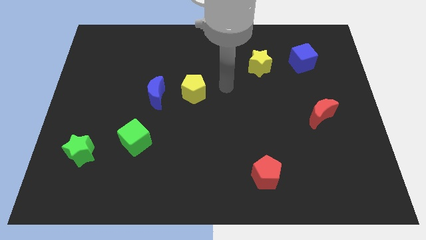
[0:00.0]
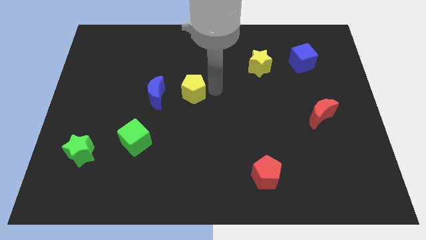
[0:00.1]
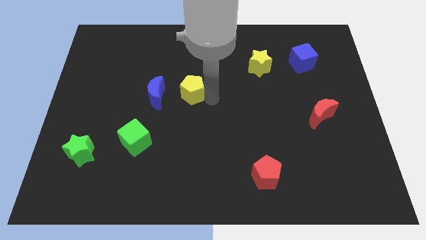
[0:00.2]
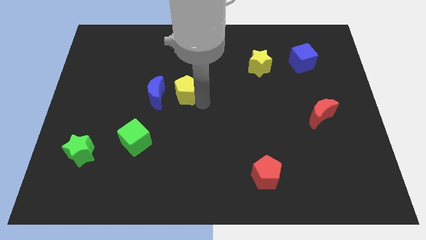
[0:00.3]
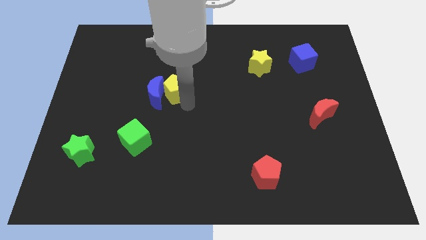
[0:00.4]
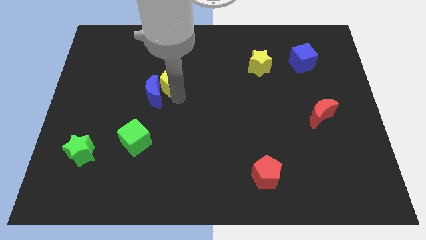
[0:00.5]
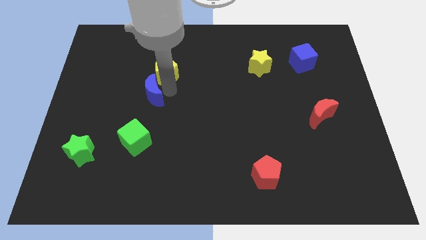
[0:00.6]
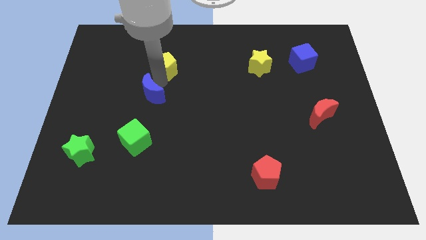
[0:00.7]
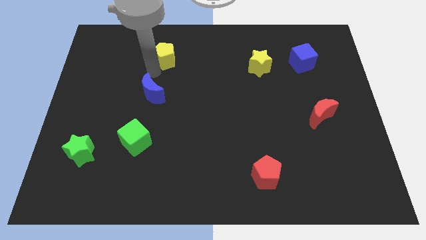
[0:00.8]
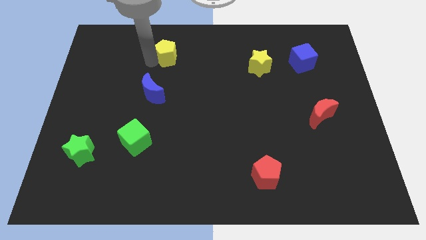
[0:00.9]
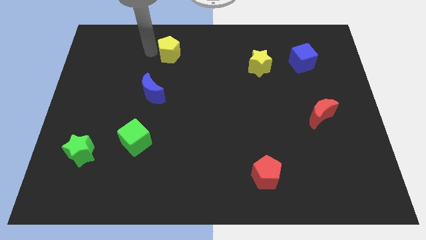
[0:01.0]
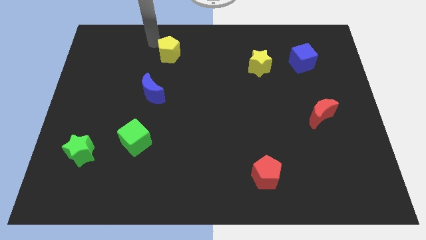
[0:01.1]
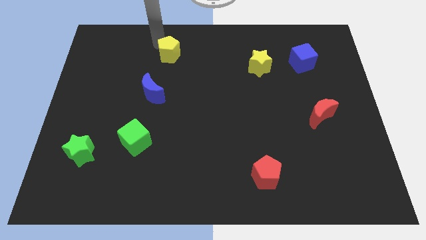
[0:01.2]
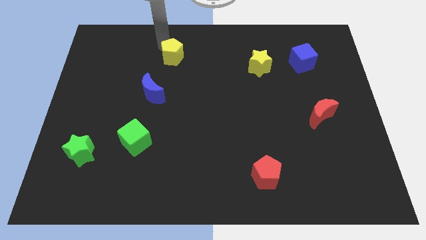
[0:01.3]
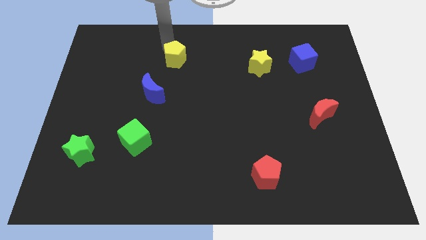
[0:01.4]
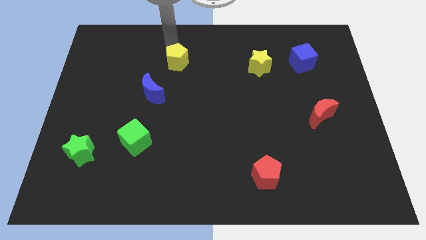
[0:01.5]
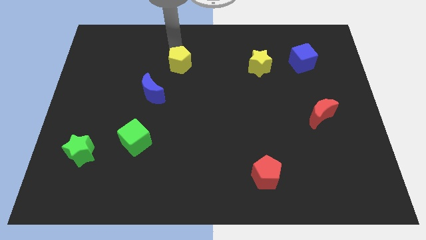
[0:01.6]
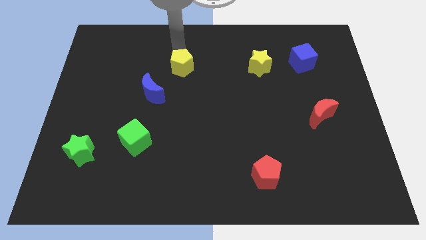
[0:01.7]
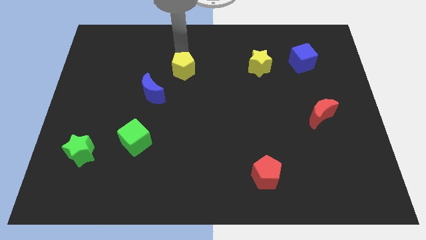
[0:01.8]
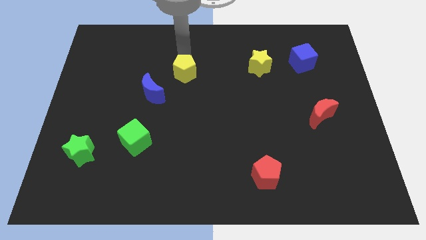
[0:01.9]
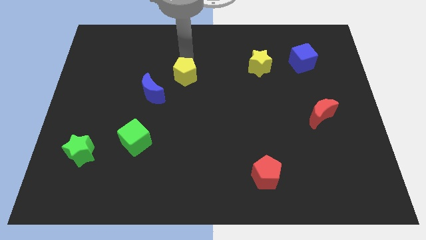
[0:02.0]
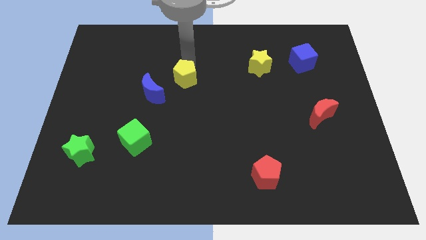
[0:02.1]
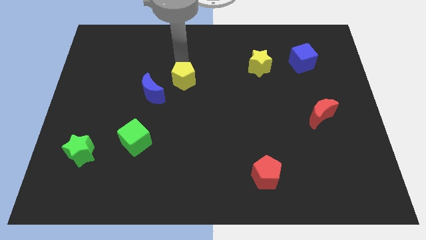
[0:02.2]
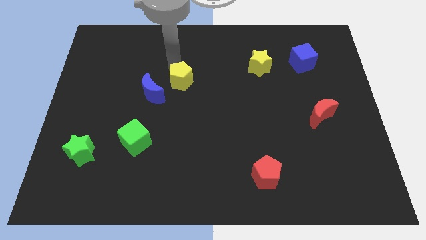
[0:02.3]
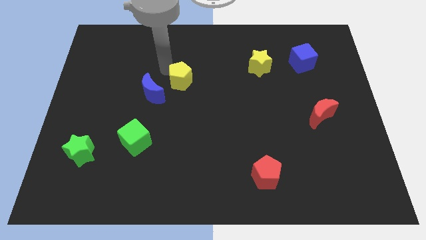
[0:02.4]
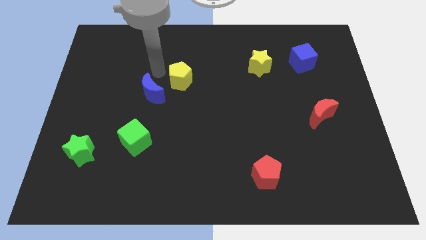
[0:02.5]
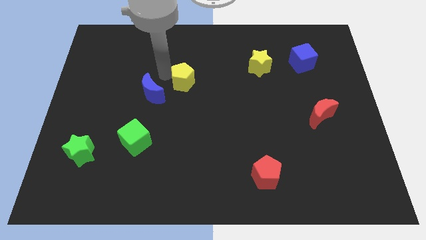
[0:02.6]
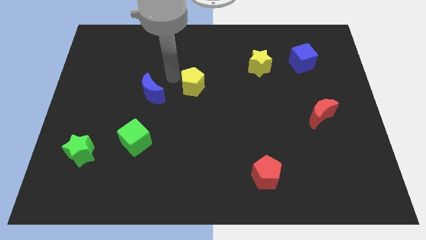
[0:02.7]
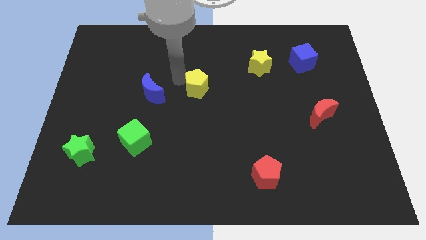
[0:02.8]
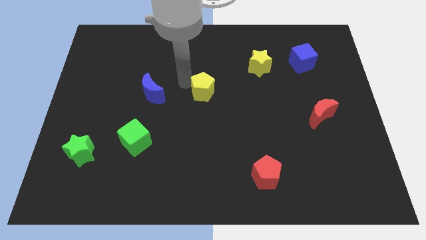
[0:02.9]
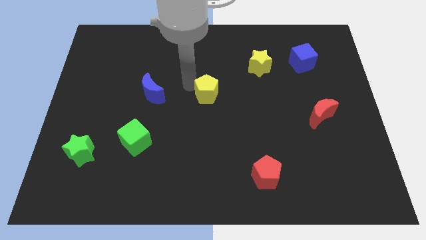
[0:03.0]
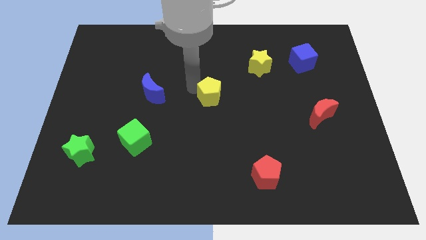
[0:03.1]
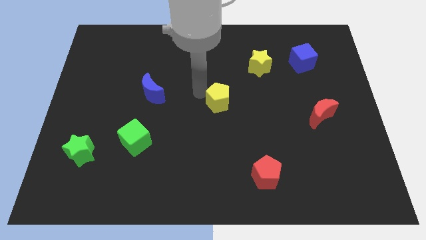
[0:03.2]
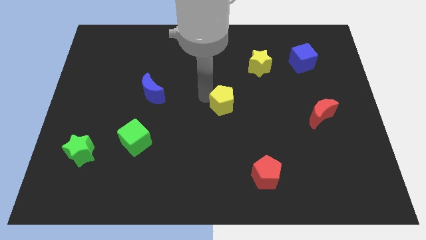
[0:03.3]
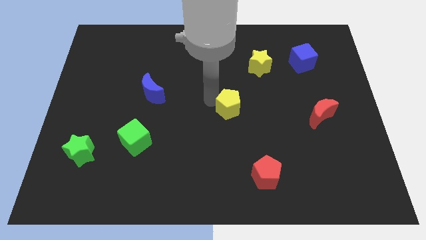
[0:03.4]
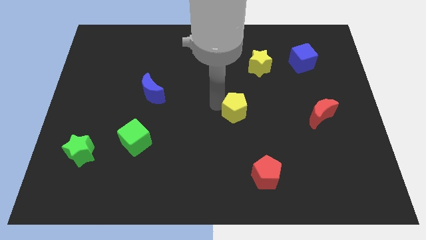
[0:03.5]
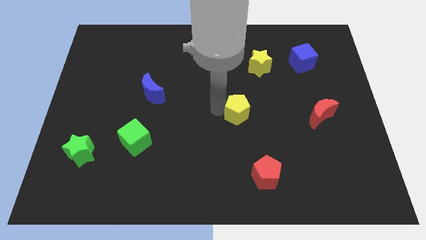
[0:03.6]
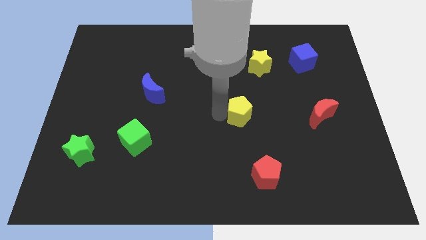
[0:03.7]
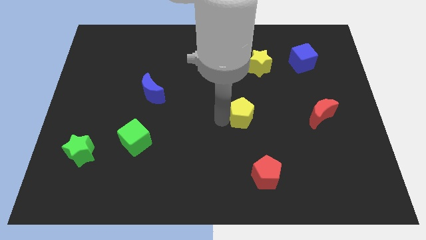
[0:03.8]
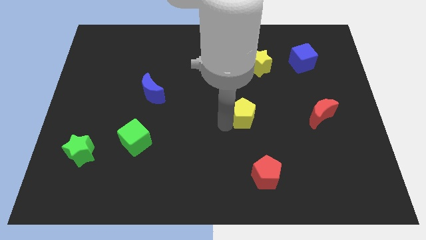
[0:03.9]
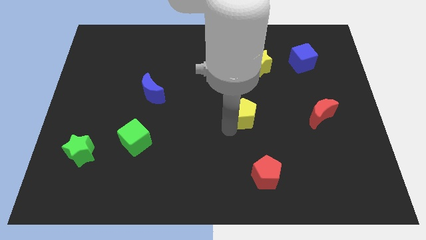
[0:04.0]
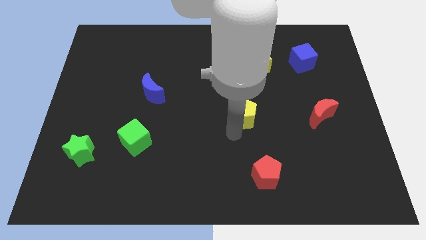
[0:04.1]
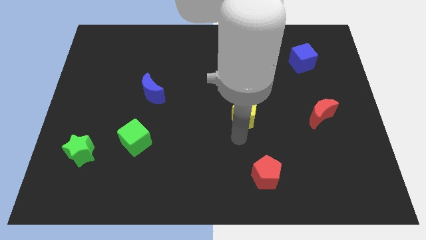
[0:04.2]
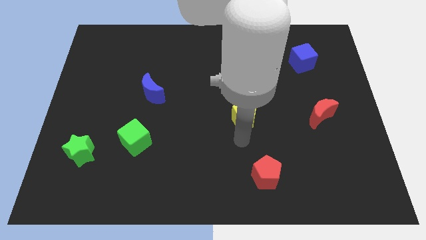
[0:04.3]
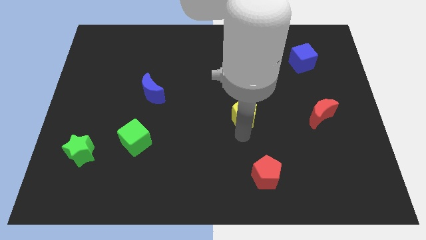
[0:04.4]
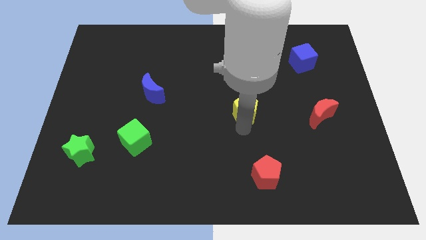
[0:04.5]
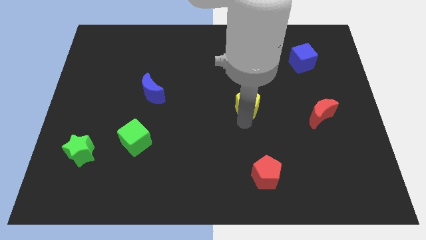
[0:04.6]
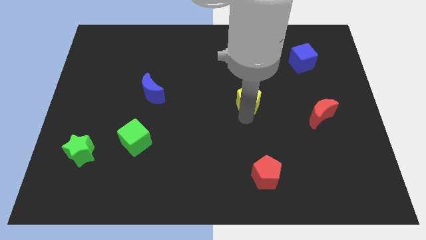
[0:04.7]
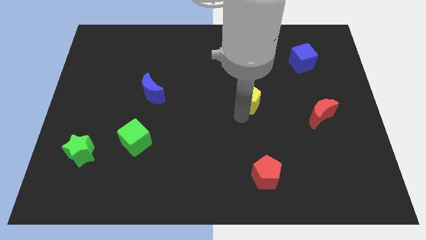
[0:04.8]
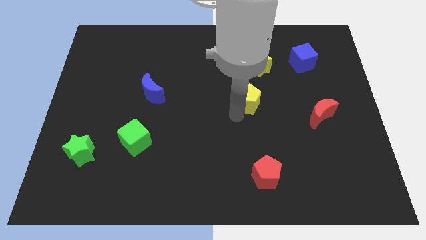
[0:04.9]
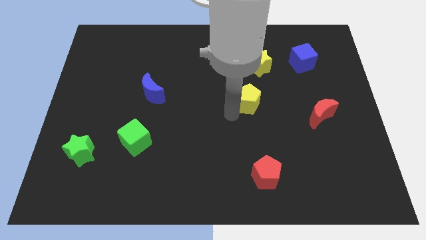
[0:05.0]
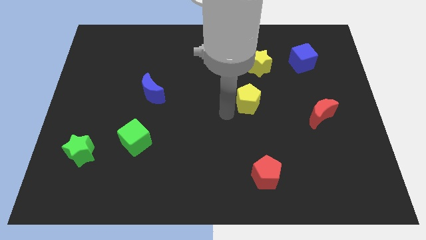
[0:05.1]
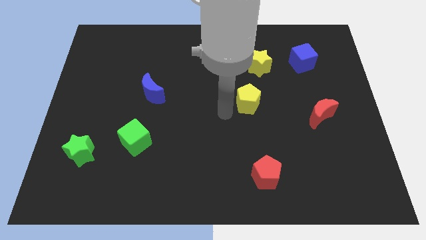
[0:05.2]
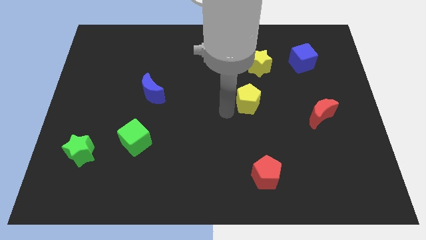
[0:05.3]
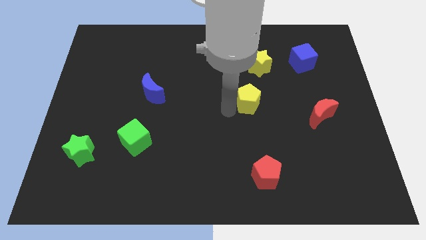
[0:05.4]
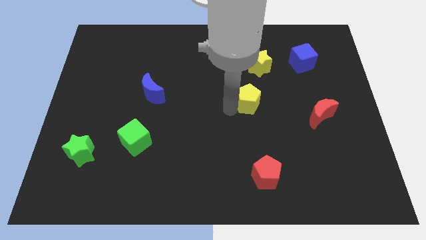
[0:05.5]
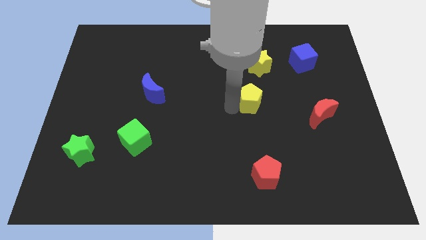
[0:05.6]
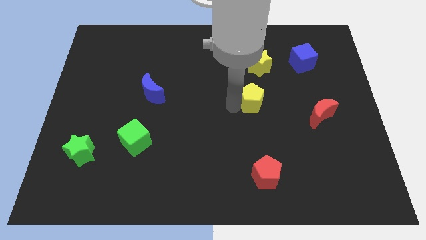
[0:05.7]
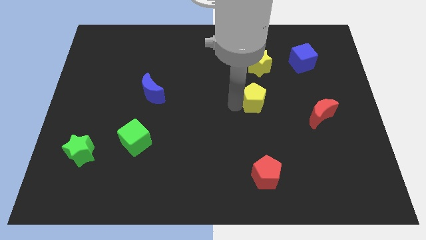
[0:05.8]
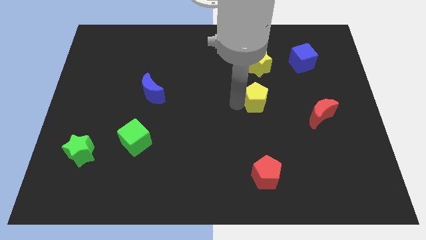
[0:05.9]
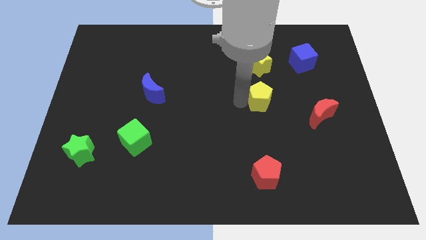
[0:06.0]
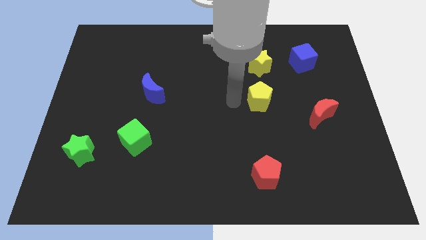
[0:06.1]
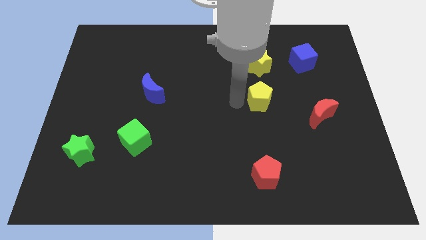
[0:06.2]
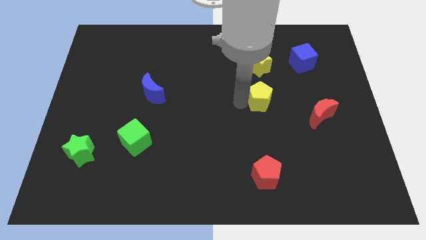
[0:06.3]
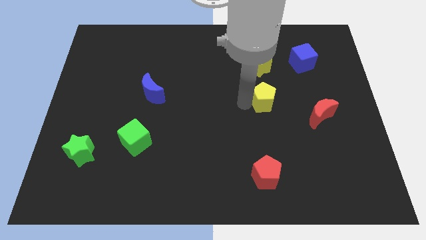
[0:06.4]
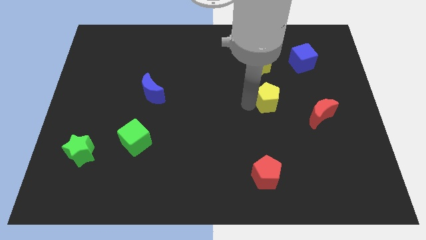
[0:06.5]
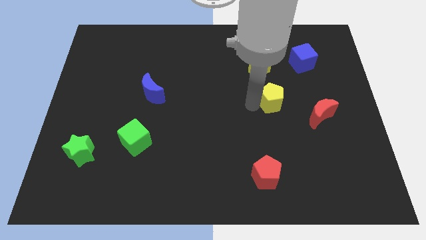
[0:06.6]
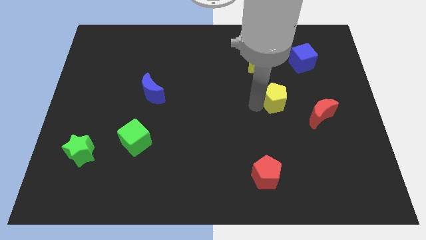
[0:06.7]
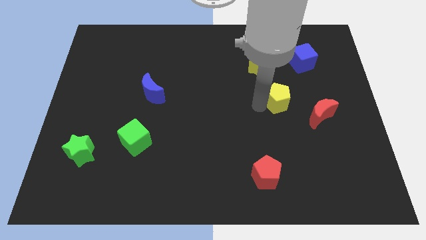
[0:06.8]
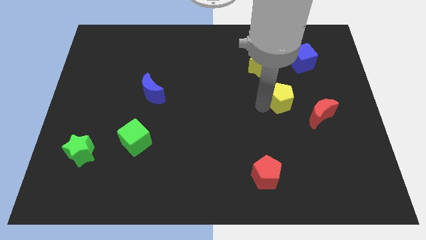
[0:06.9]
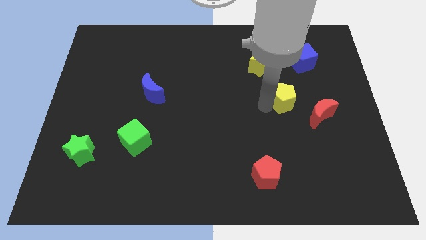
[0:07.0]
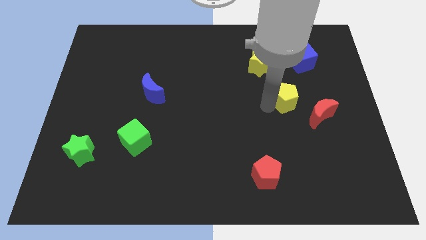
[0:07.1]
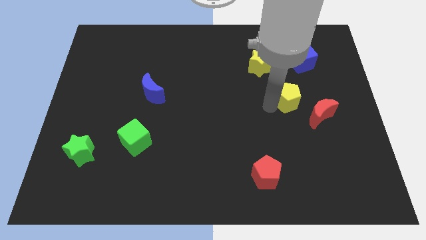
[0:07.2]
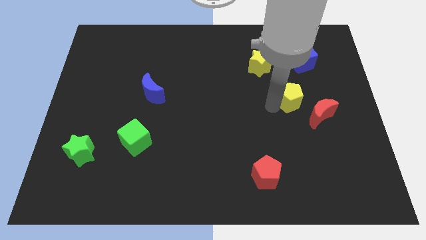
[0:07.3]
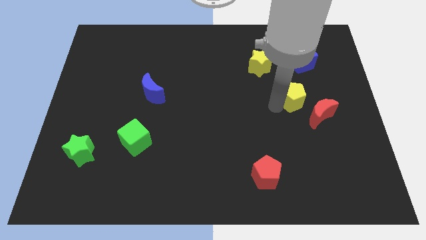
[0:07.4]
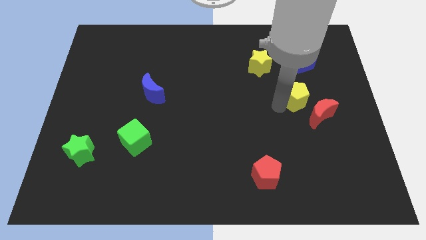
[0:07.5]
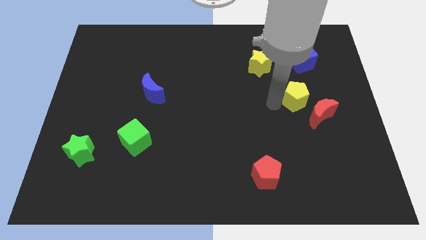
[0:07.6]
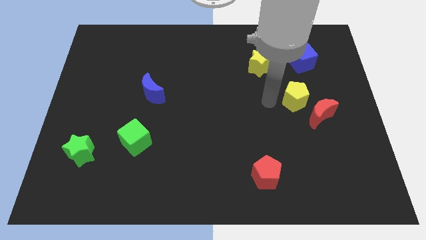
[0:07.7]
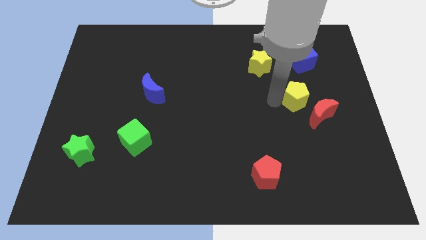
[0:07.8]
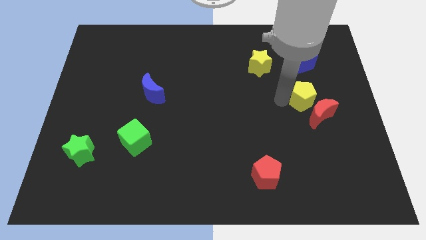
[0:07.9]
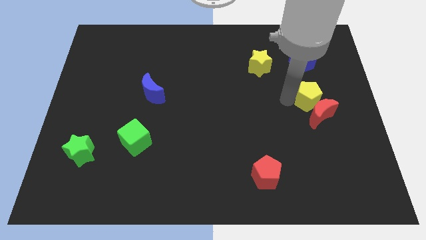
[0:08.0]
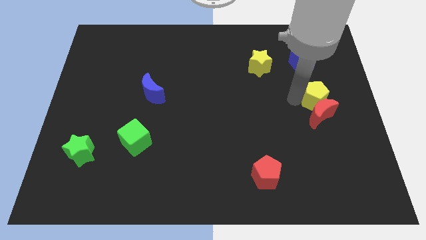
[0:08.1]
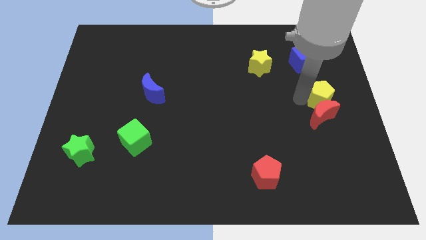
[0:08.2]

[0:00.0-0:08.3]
slide the yellow pentagon to the right side
